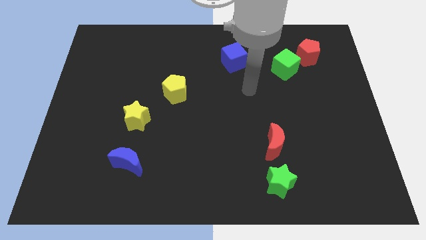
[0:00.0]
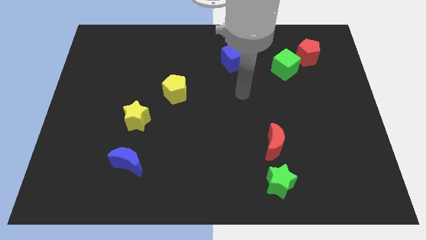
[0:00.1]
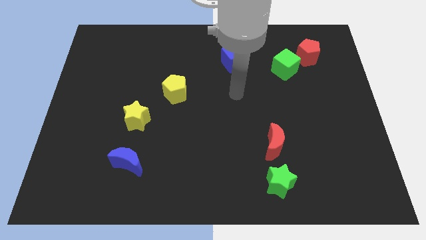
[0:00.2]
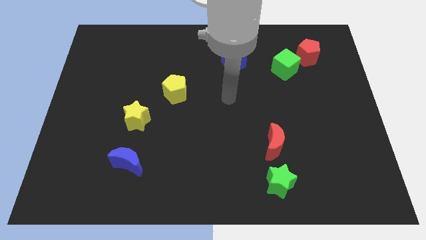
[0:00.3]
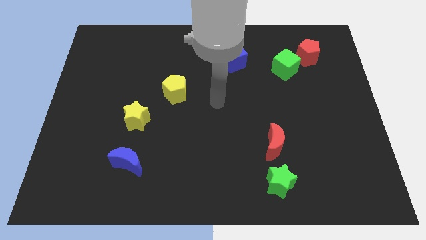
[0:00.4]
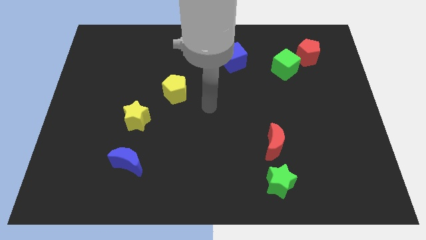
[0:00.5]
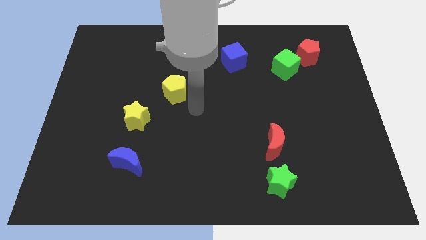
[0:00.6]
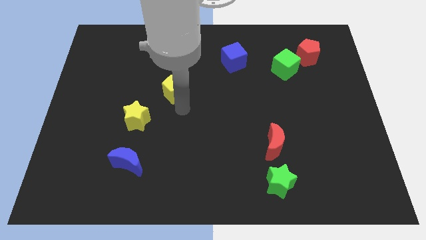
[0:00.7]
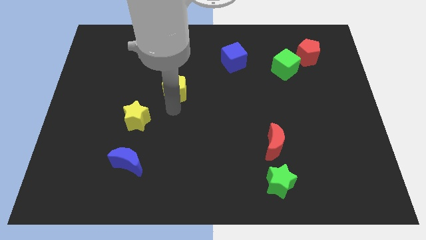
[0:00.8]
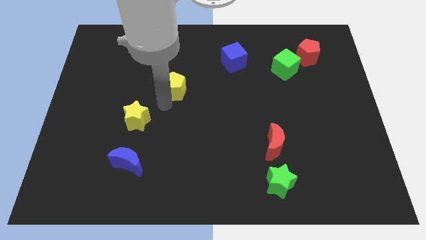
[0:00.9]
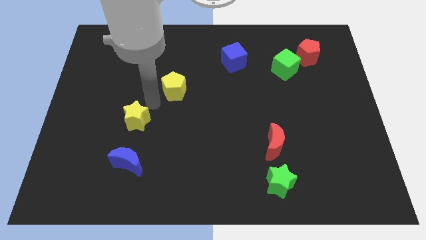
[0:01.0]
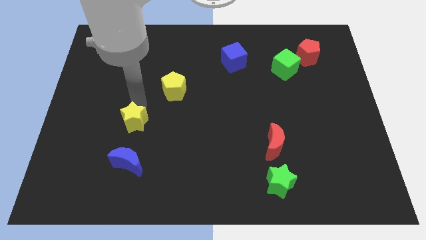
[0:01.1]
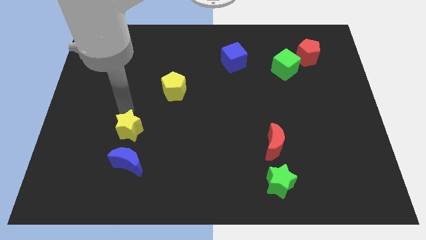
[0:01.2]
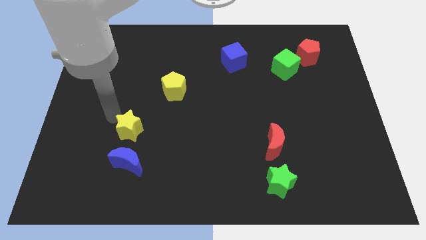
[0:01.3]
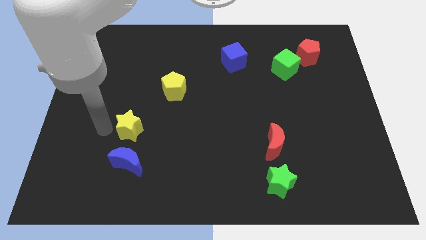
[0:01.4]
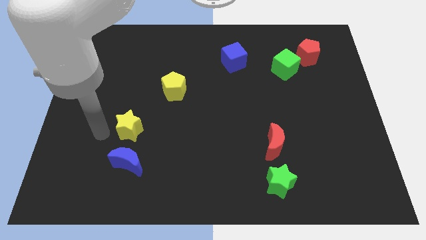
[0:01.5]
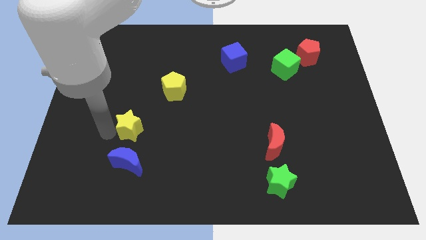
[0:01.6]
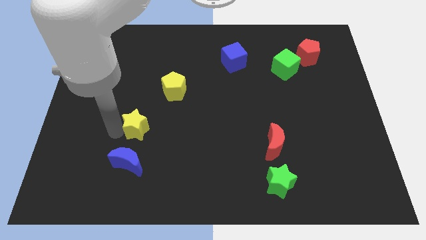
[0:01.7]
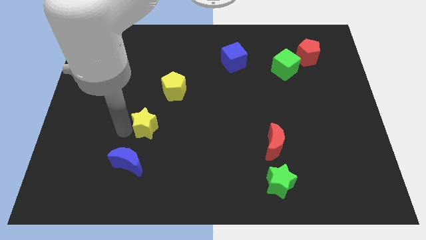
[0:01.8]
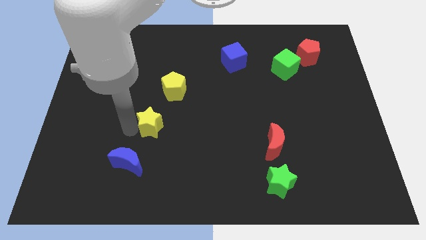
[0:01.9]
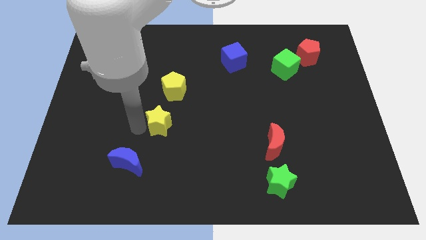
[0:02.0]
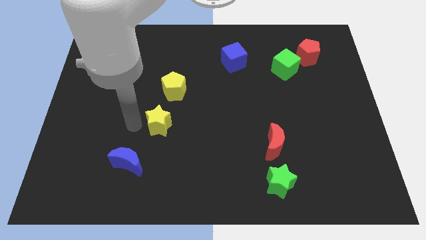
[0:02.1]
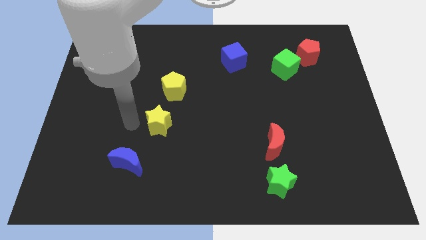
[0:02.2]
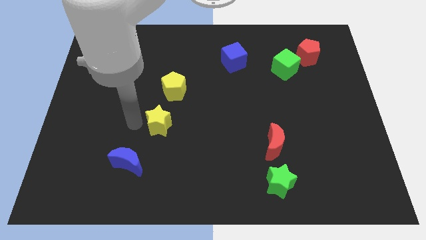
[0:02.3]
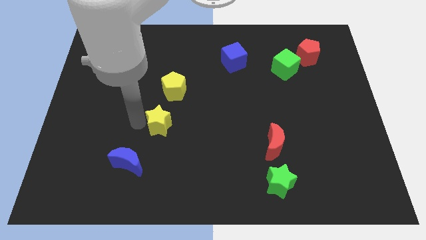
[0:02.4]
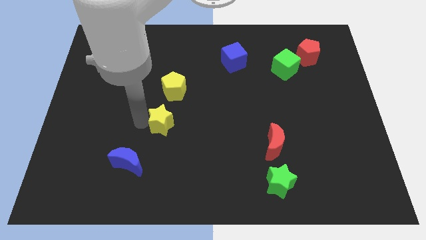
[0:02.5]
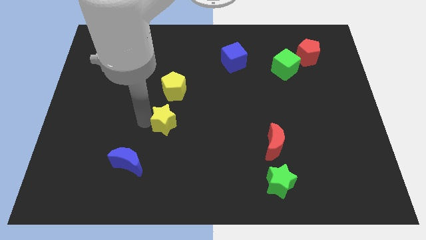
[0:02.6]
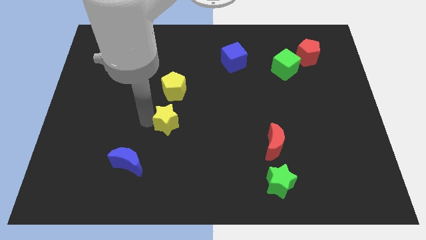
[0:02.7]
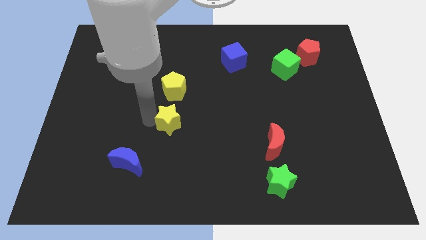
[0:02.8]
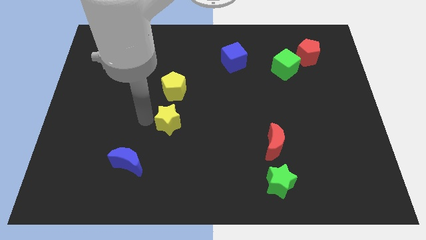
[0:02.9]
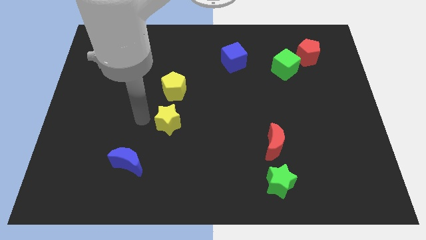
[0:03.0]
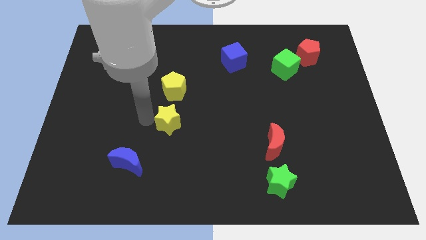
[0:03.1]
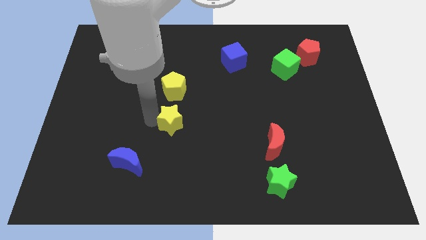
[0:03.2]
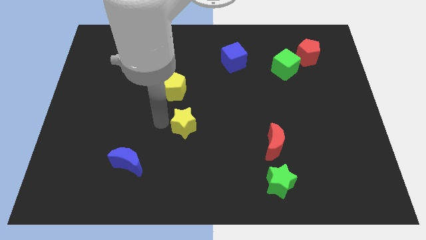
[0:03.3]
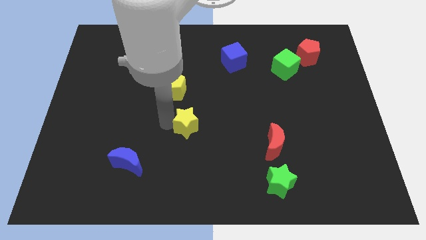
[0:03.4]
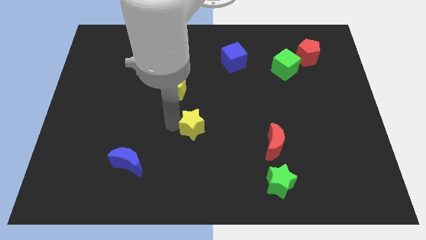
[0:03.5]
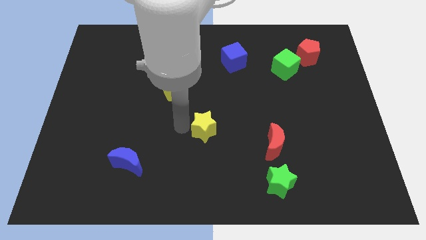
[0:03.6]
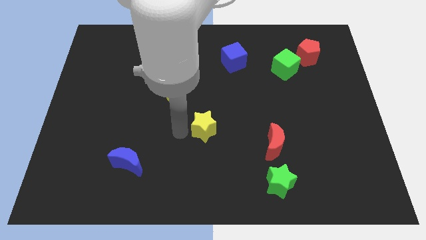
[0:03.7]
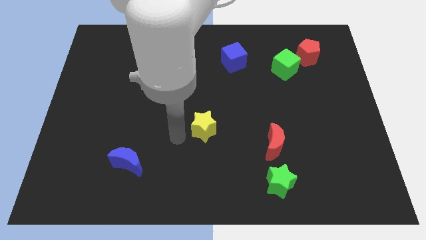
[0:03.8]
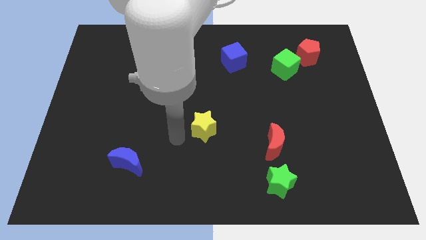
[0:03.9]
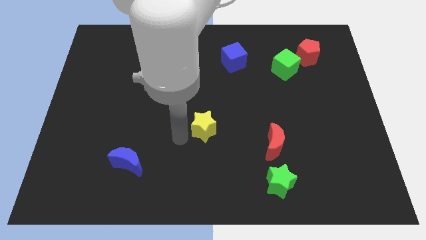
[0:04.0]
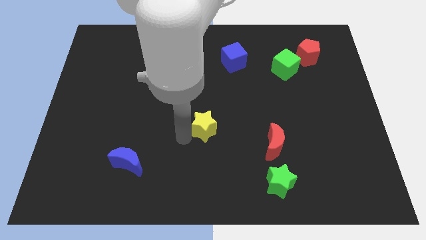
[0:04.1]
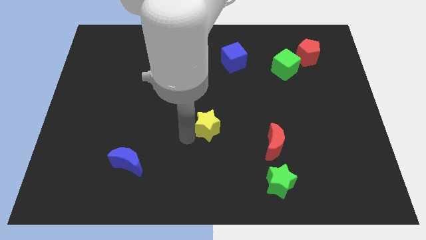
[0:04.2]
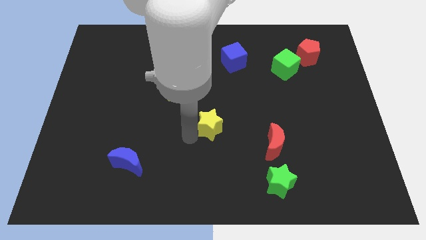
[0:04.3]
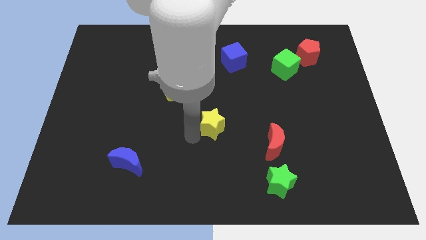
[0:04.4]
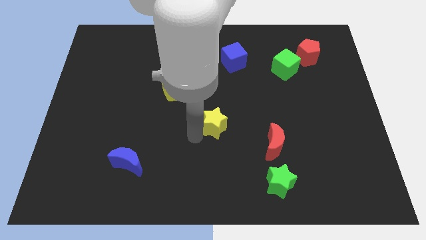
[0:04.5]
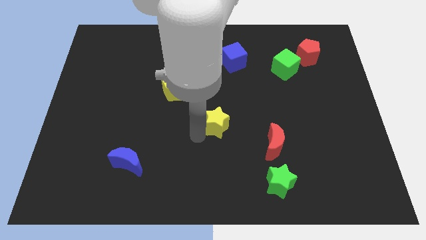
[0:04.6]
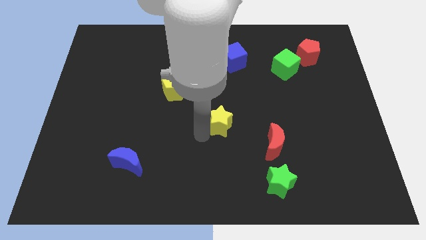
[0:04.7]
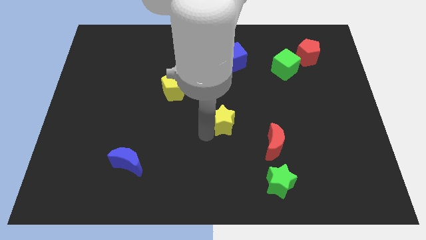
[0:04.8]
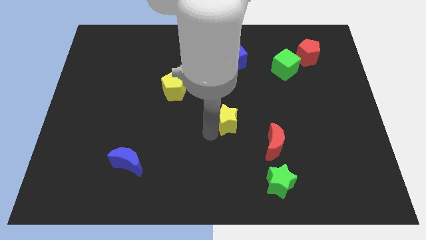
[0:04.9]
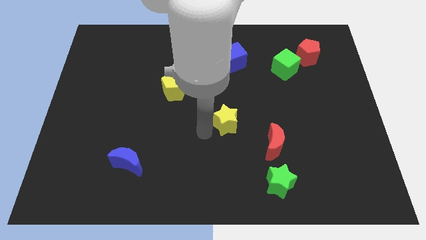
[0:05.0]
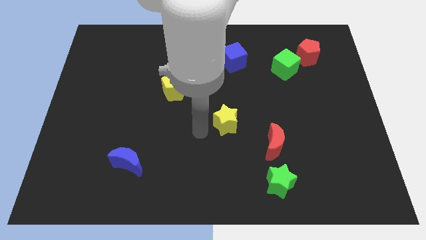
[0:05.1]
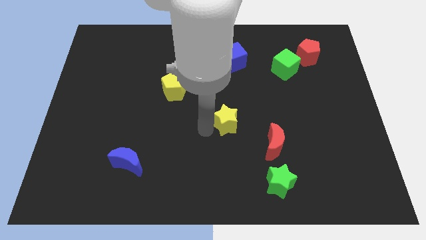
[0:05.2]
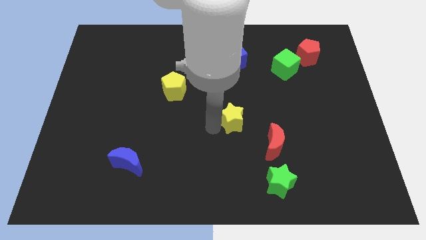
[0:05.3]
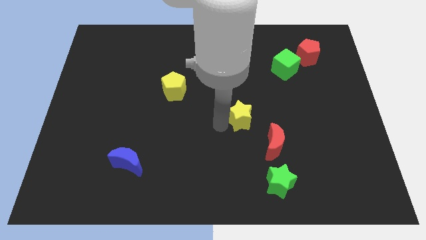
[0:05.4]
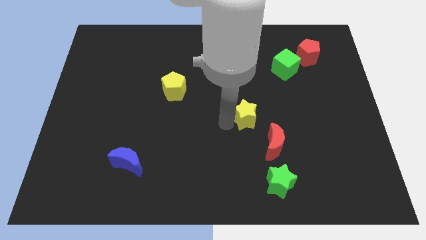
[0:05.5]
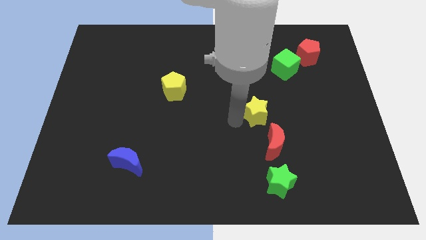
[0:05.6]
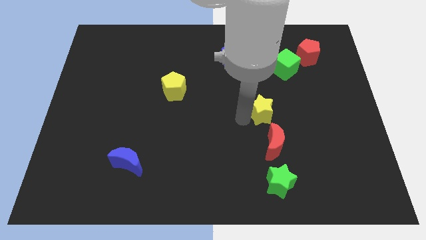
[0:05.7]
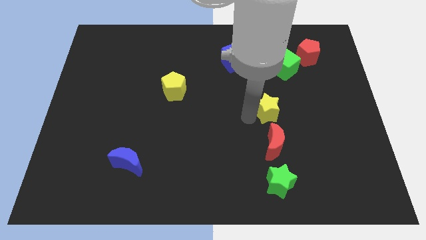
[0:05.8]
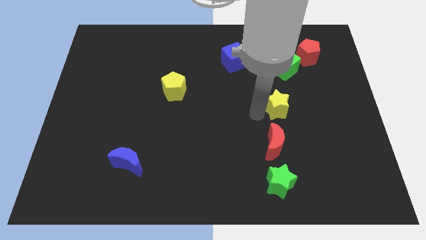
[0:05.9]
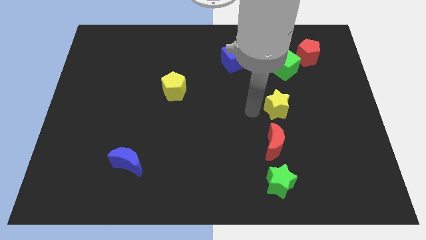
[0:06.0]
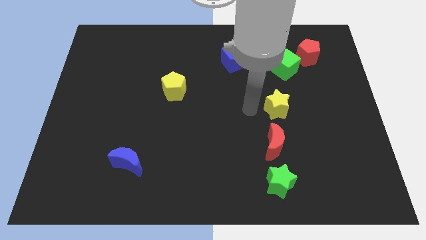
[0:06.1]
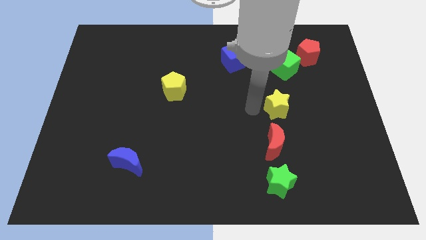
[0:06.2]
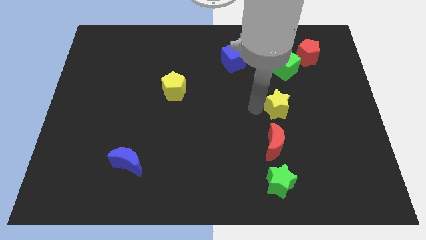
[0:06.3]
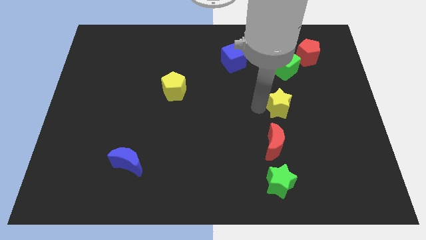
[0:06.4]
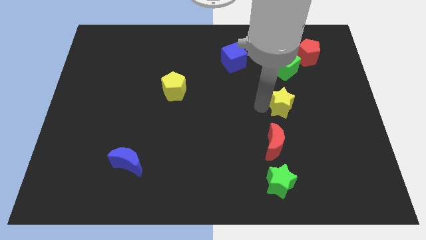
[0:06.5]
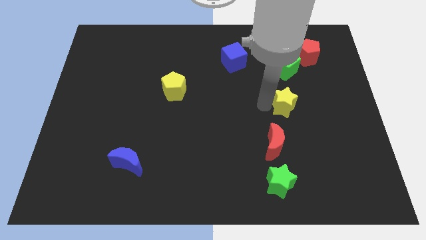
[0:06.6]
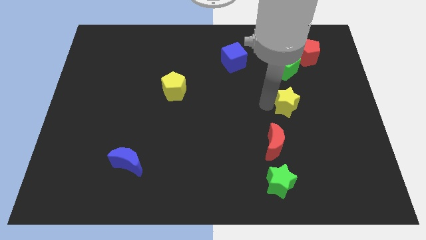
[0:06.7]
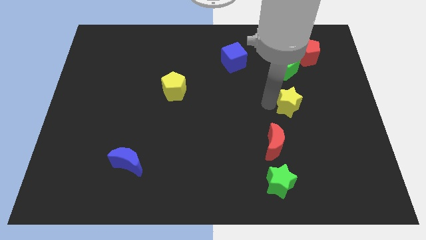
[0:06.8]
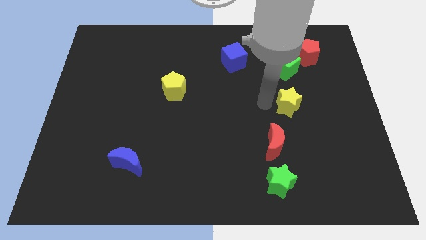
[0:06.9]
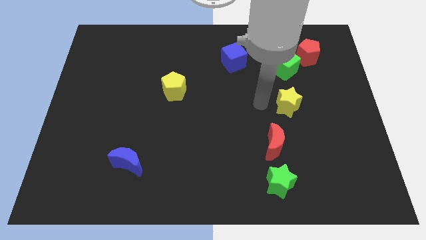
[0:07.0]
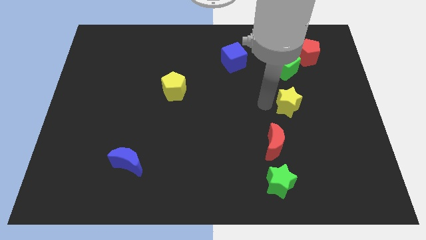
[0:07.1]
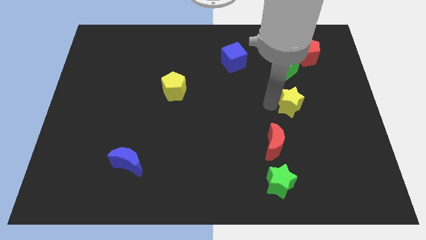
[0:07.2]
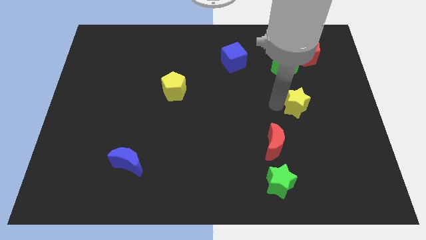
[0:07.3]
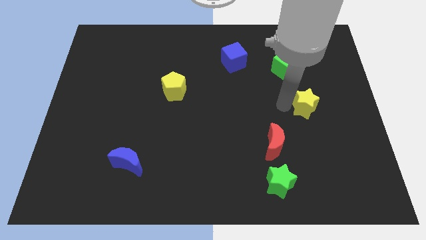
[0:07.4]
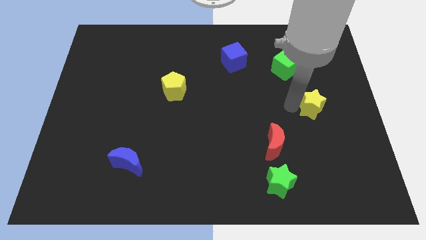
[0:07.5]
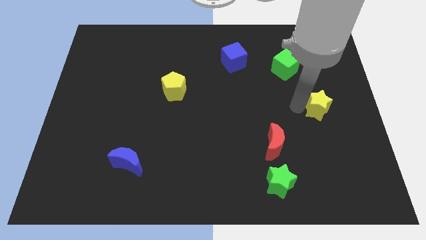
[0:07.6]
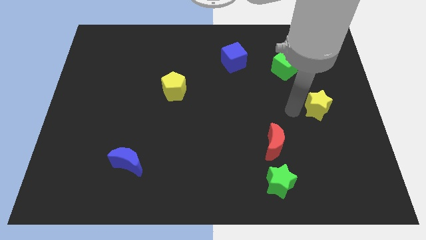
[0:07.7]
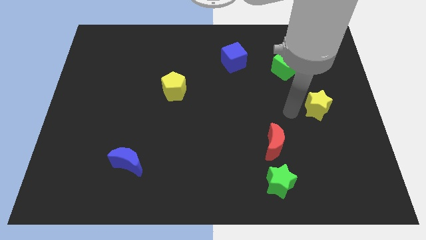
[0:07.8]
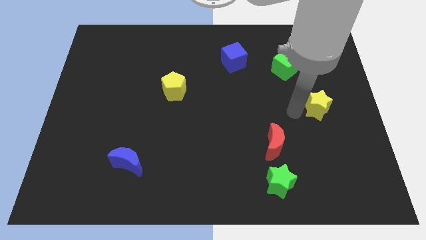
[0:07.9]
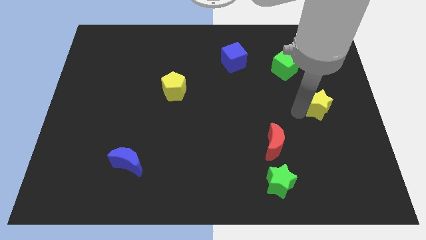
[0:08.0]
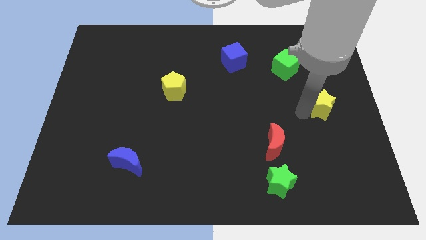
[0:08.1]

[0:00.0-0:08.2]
slide the yellow star to the center right
